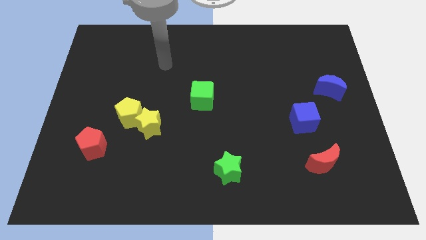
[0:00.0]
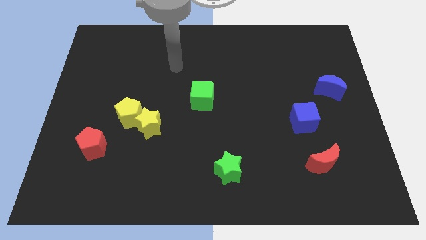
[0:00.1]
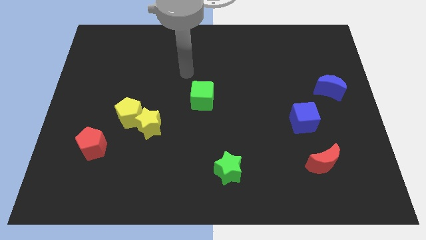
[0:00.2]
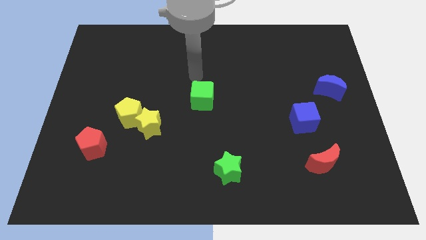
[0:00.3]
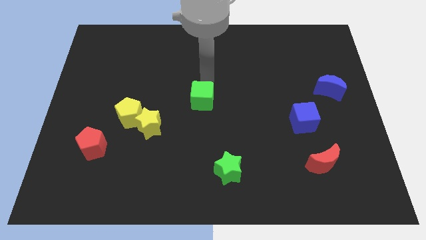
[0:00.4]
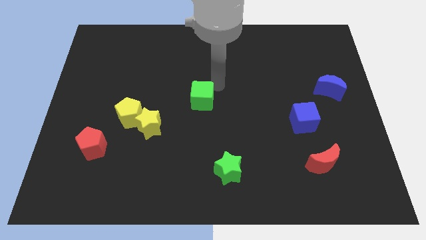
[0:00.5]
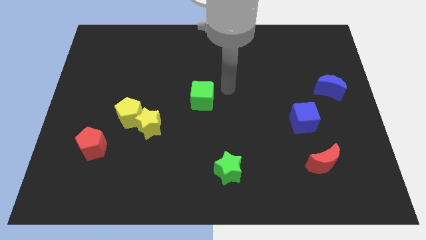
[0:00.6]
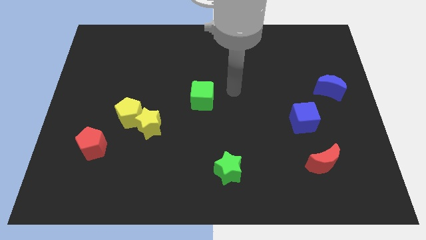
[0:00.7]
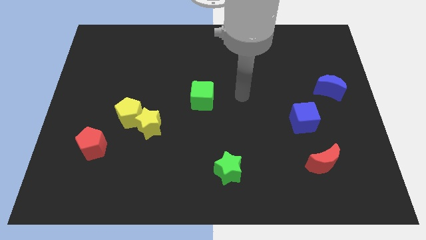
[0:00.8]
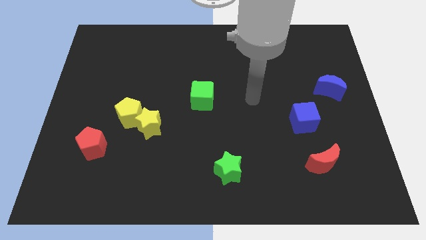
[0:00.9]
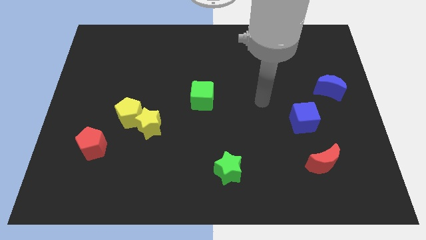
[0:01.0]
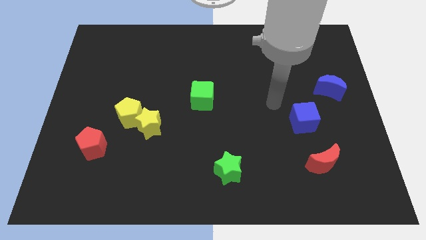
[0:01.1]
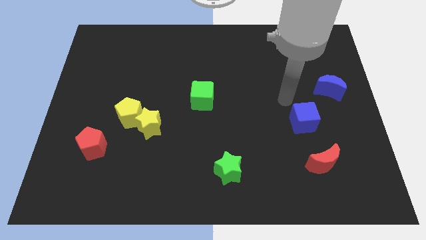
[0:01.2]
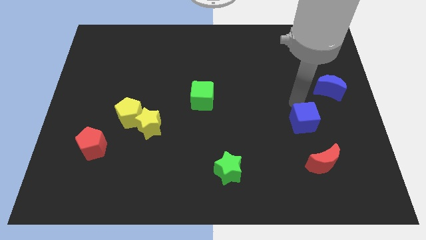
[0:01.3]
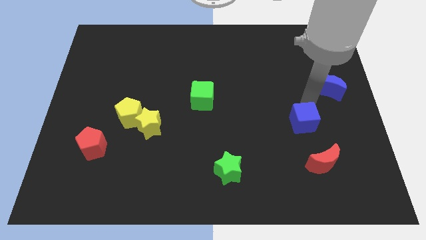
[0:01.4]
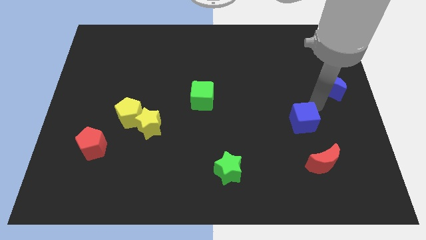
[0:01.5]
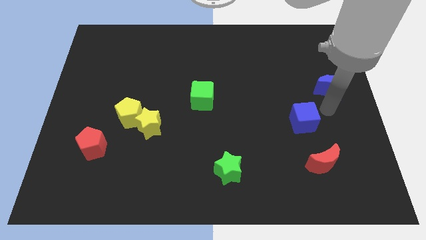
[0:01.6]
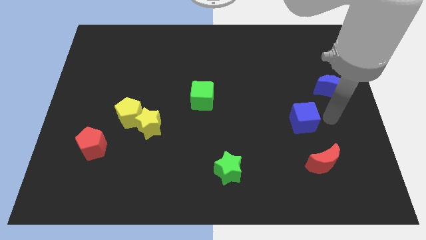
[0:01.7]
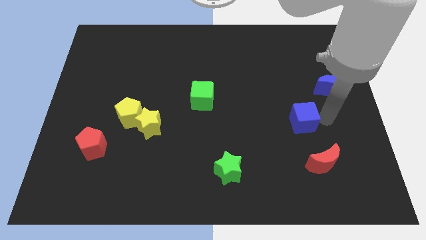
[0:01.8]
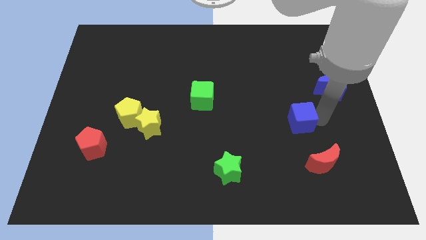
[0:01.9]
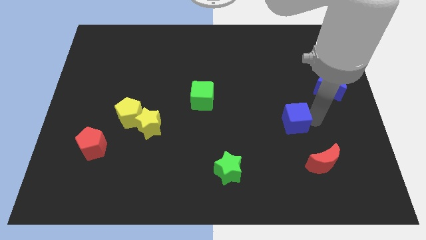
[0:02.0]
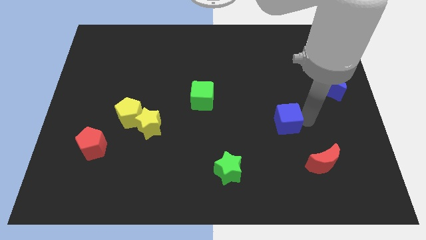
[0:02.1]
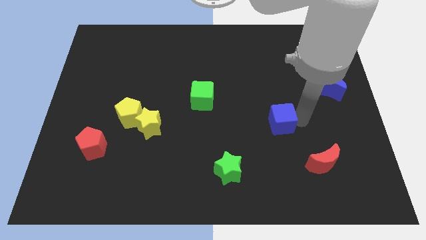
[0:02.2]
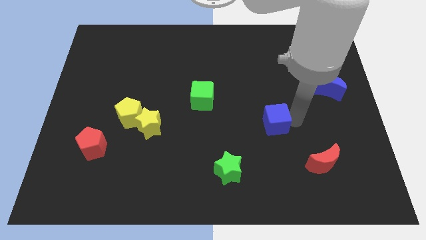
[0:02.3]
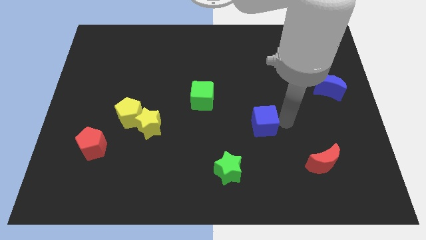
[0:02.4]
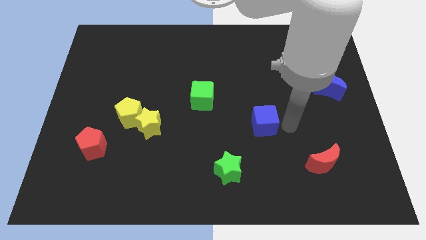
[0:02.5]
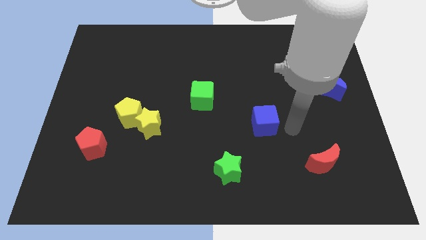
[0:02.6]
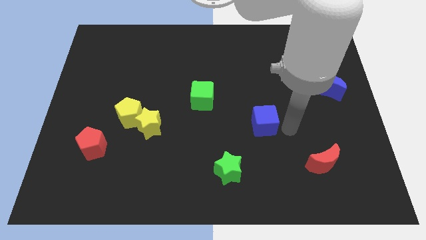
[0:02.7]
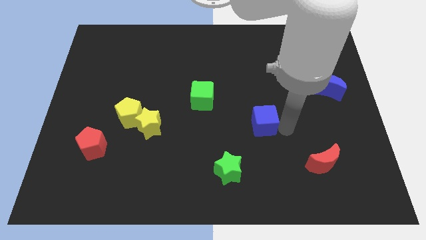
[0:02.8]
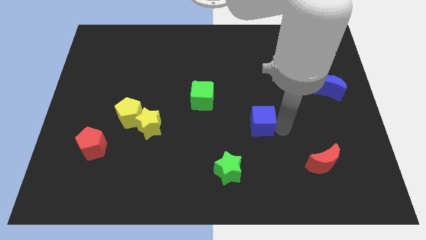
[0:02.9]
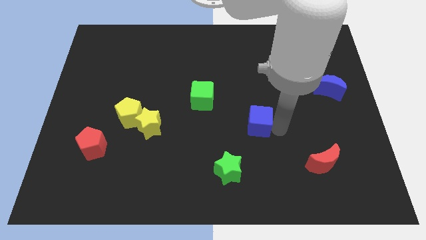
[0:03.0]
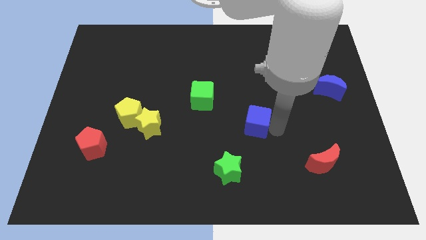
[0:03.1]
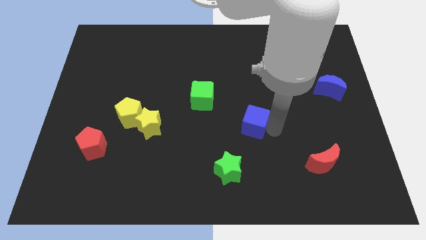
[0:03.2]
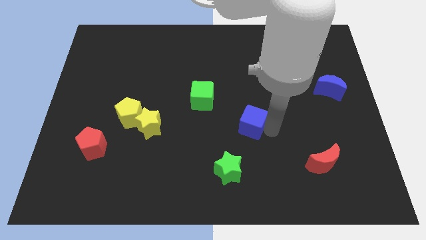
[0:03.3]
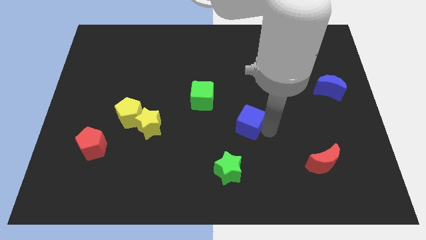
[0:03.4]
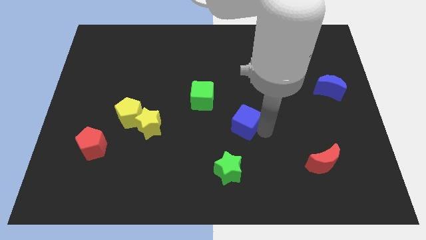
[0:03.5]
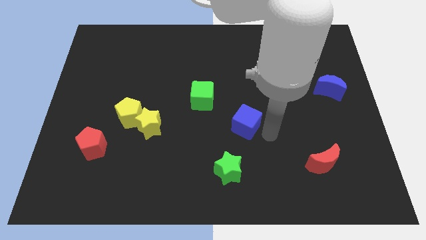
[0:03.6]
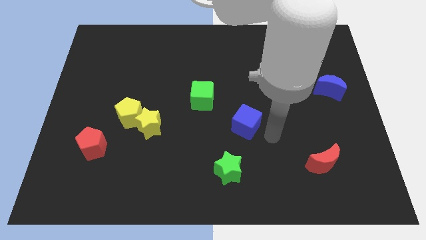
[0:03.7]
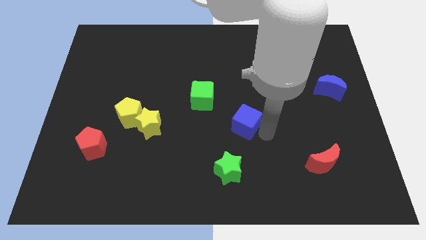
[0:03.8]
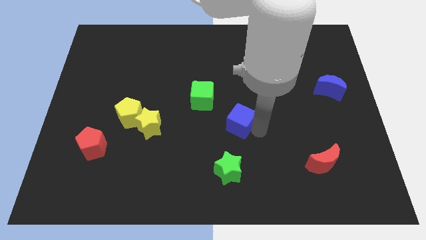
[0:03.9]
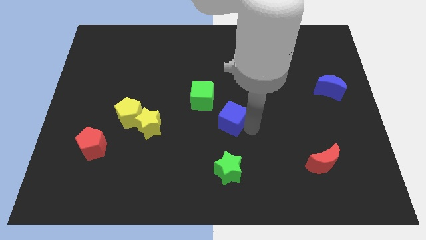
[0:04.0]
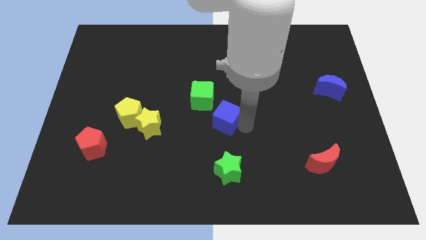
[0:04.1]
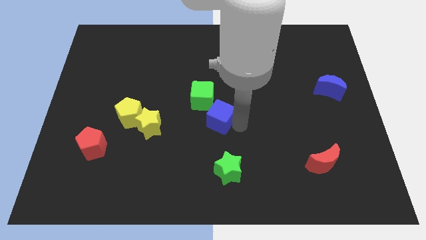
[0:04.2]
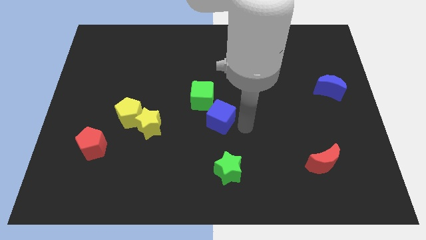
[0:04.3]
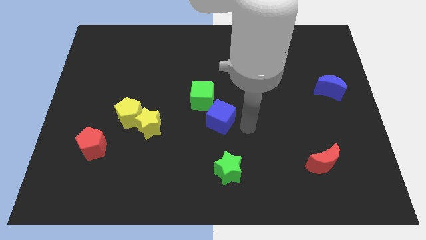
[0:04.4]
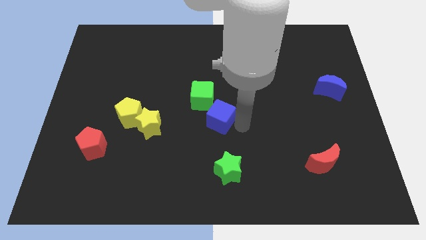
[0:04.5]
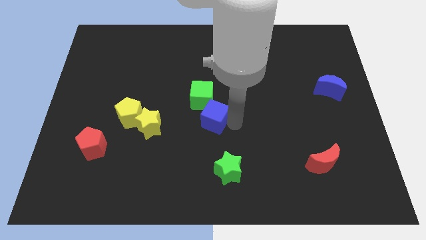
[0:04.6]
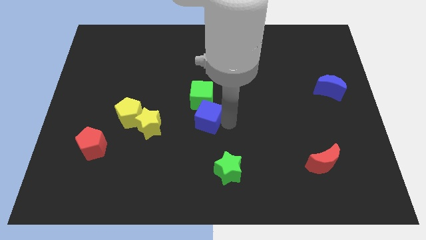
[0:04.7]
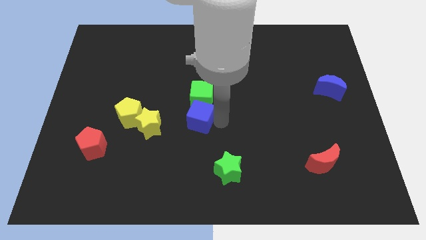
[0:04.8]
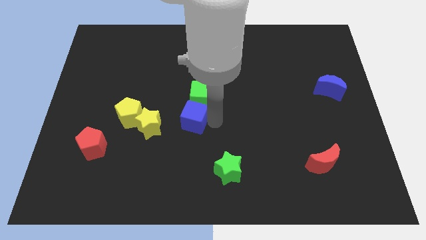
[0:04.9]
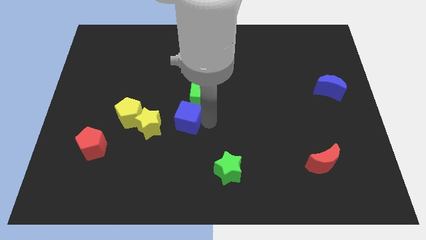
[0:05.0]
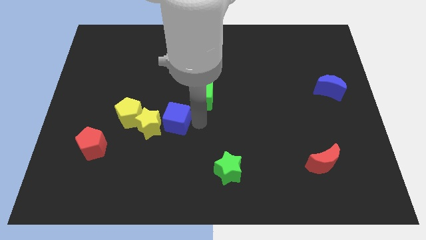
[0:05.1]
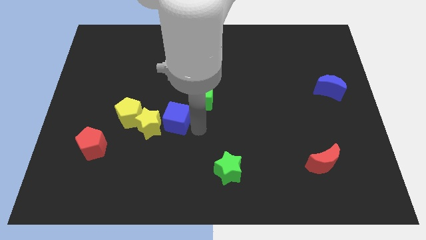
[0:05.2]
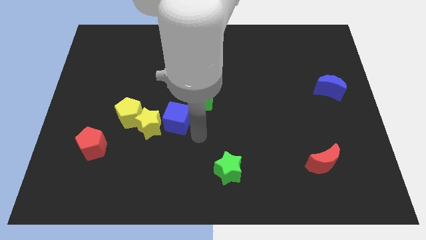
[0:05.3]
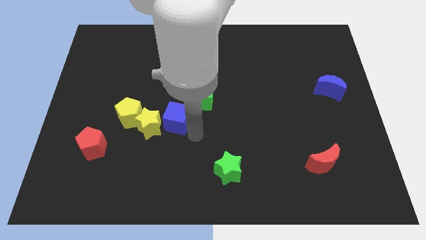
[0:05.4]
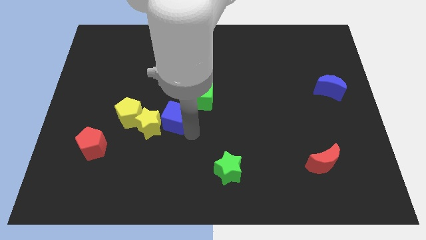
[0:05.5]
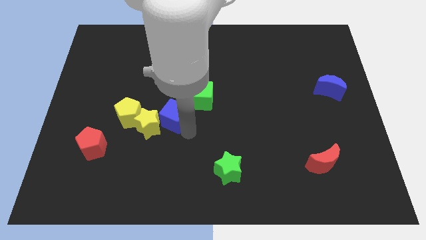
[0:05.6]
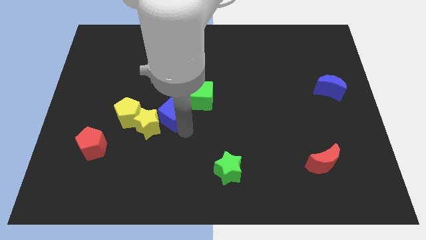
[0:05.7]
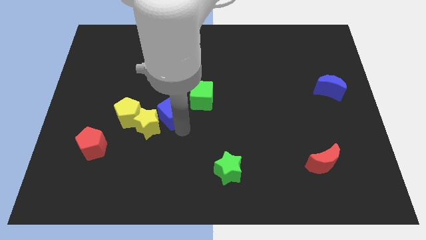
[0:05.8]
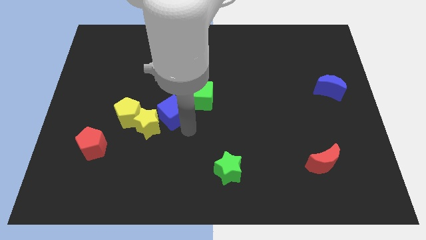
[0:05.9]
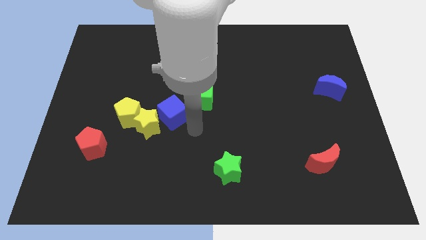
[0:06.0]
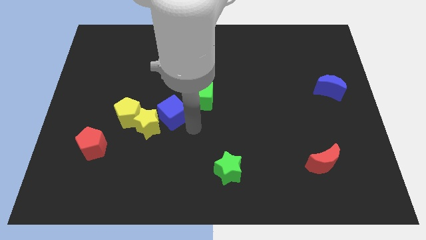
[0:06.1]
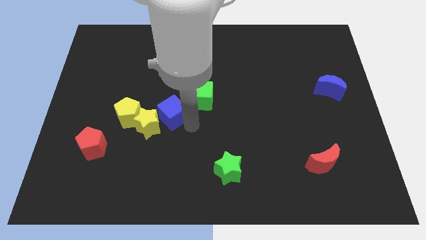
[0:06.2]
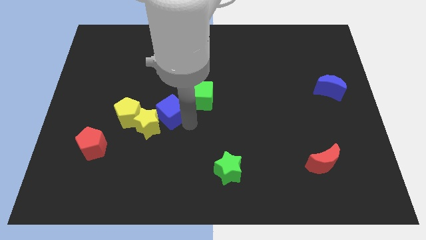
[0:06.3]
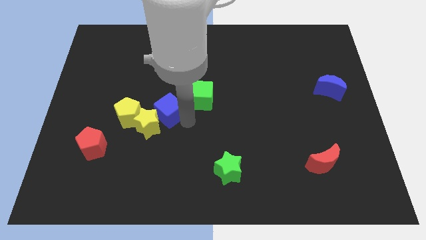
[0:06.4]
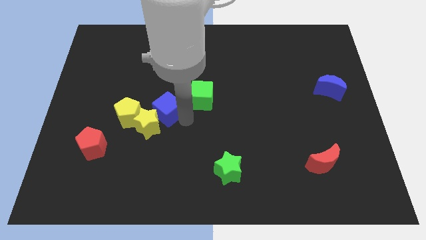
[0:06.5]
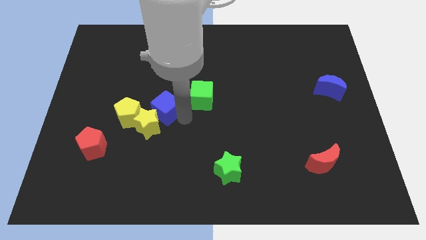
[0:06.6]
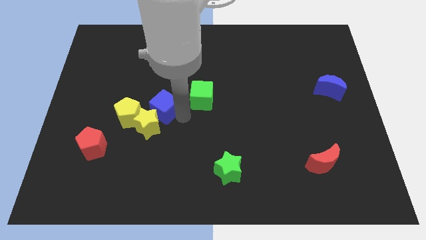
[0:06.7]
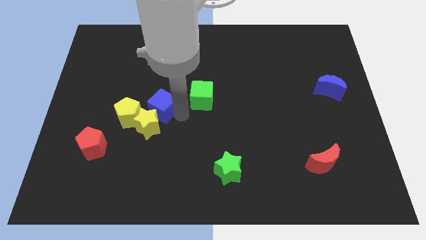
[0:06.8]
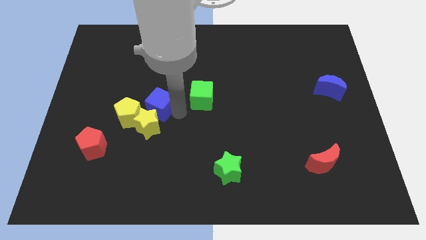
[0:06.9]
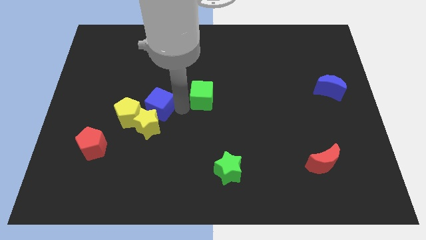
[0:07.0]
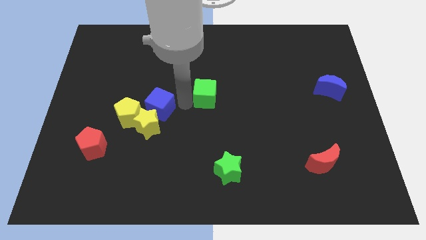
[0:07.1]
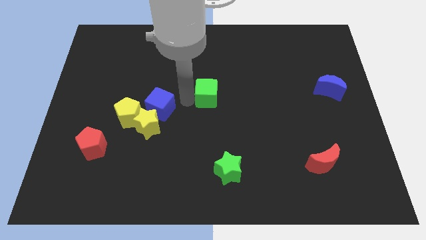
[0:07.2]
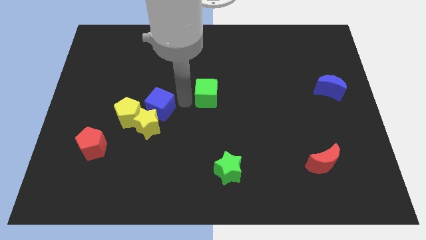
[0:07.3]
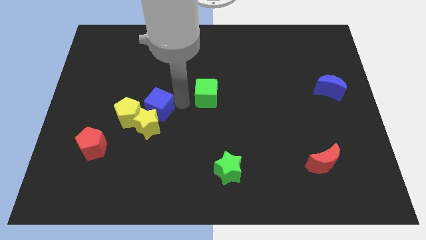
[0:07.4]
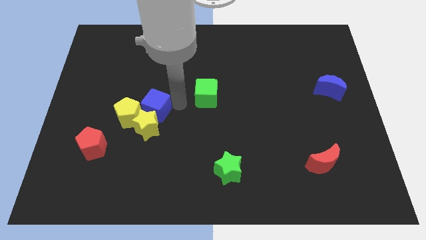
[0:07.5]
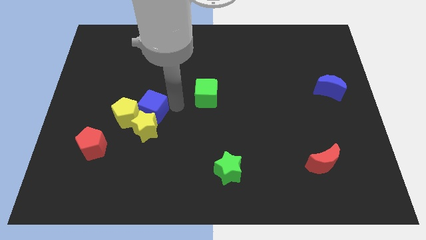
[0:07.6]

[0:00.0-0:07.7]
push the blue cube next to the yellow pentagon
